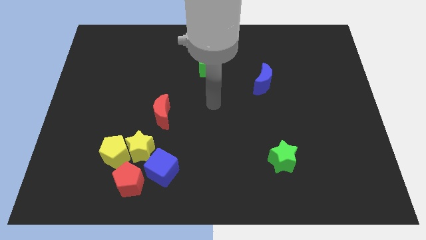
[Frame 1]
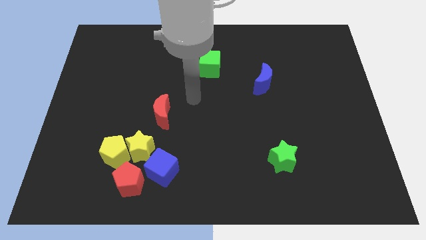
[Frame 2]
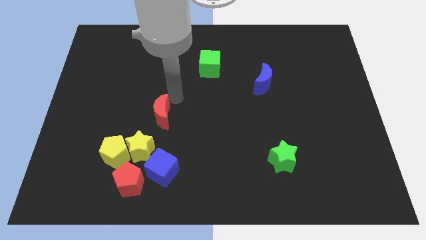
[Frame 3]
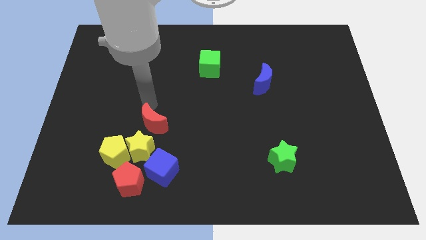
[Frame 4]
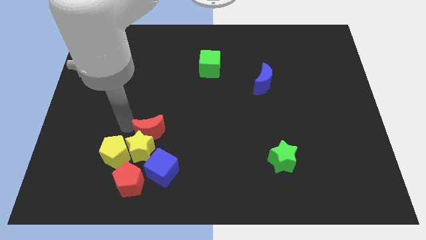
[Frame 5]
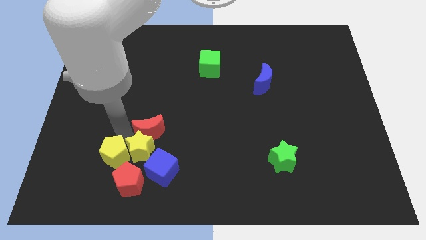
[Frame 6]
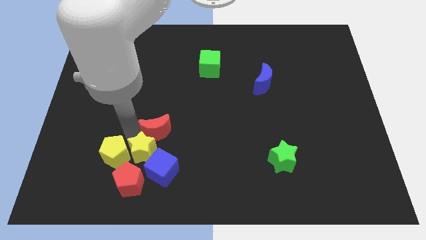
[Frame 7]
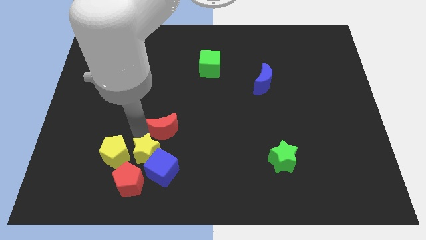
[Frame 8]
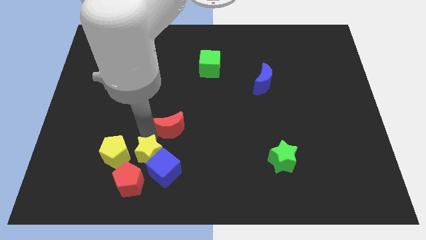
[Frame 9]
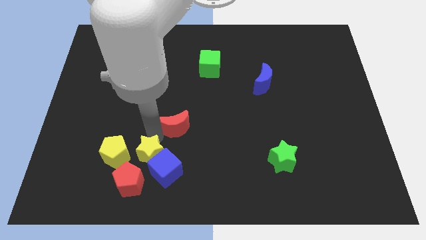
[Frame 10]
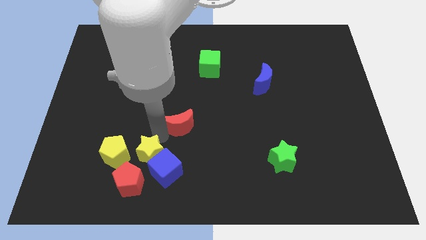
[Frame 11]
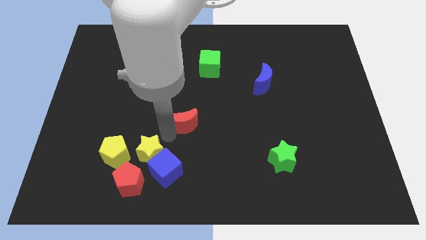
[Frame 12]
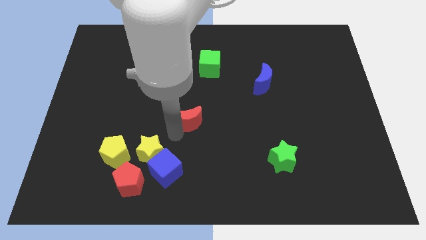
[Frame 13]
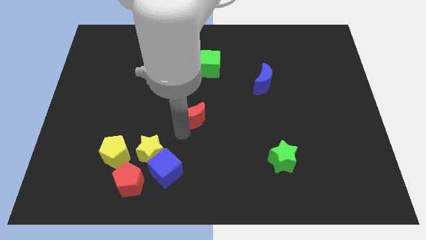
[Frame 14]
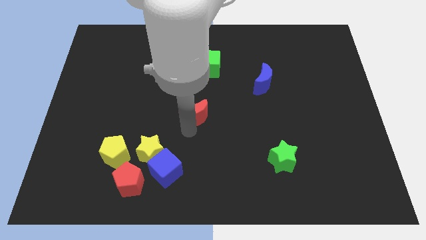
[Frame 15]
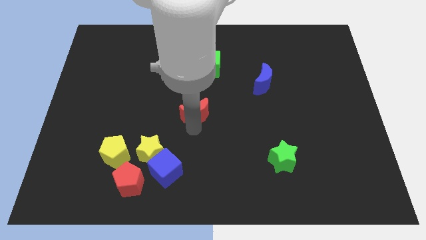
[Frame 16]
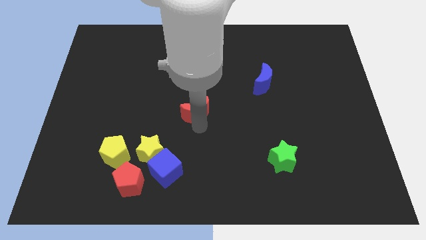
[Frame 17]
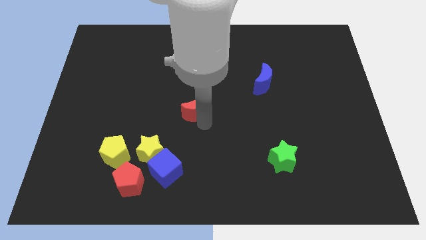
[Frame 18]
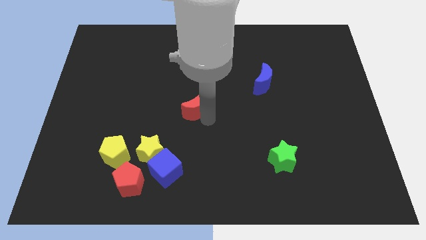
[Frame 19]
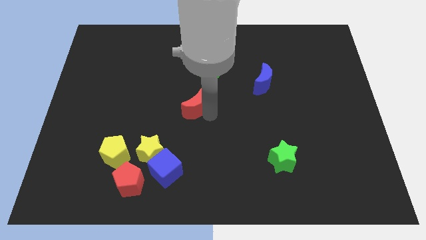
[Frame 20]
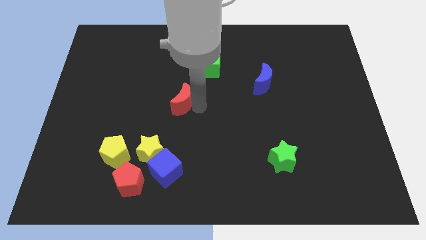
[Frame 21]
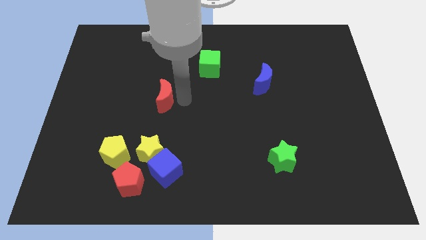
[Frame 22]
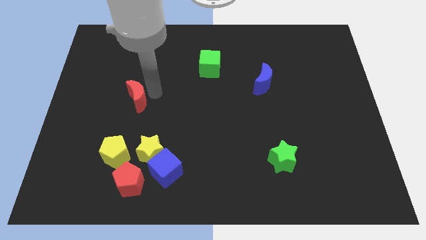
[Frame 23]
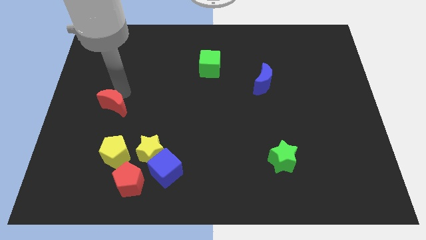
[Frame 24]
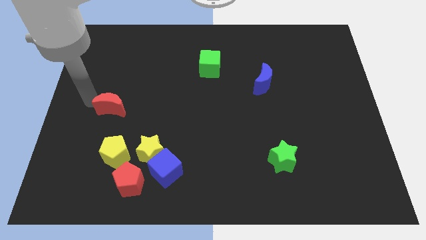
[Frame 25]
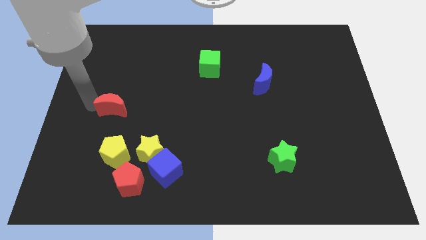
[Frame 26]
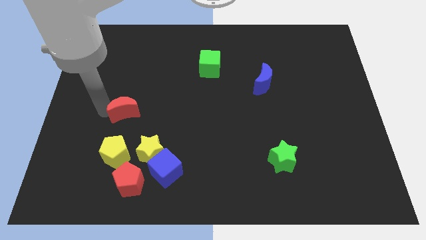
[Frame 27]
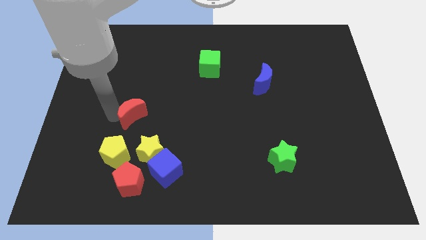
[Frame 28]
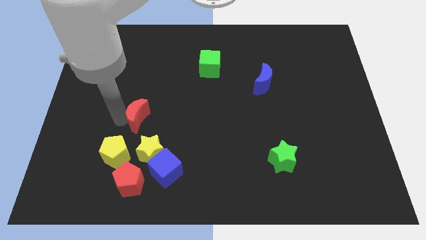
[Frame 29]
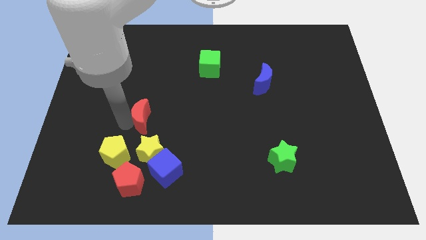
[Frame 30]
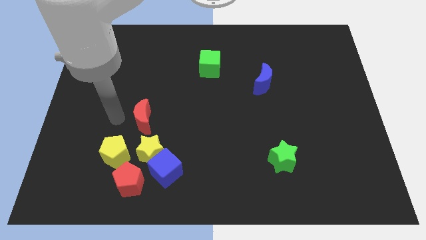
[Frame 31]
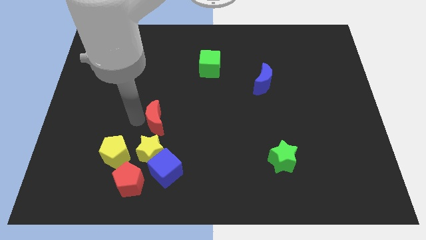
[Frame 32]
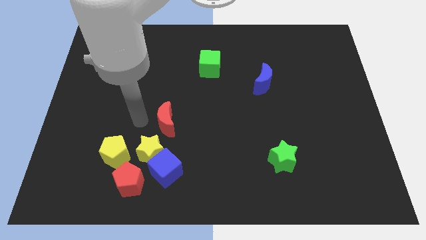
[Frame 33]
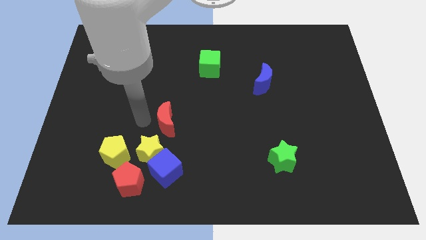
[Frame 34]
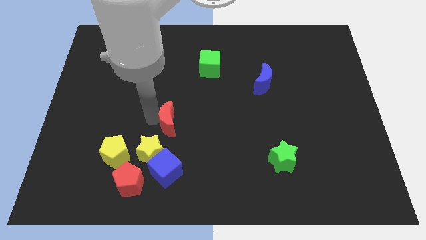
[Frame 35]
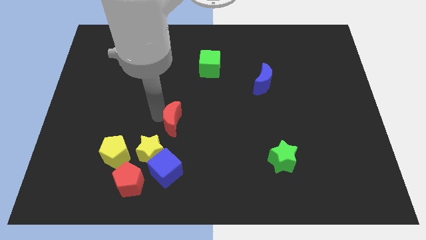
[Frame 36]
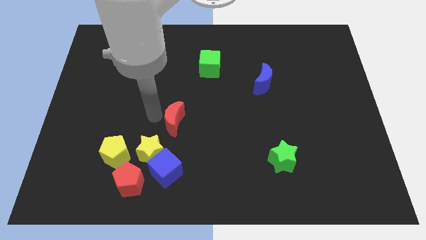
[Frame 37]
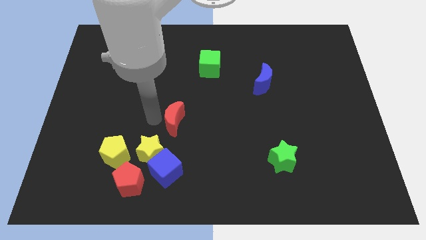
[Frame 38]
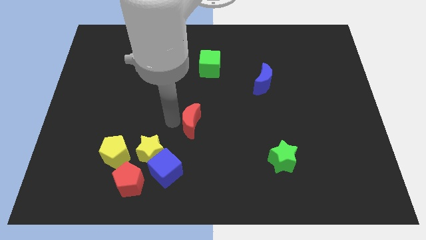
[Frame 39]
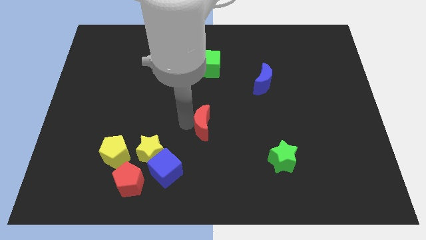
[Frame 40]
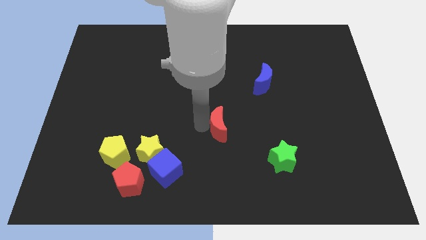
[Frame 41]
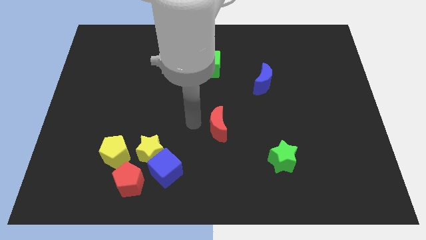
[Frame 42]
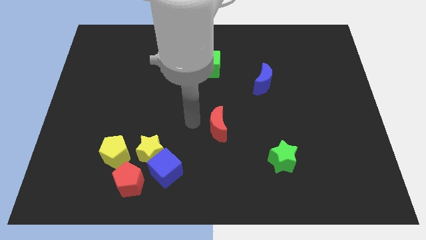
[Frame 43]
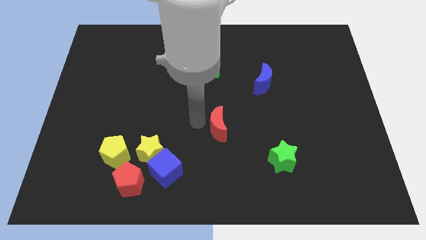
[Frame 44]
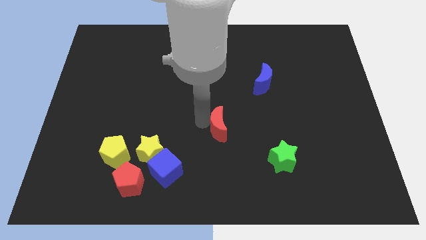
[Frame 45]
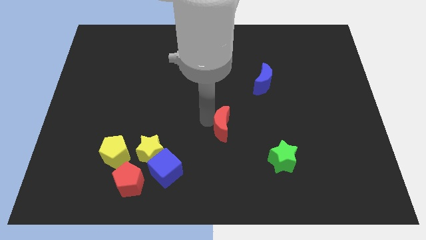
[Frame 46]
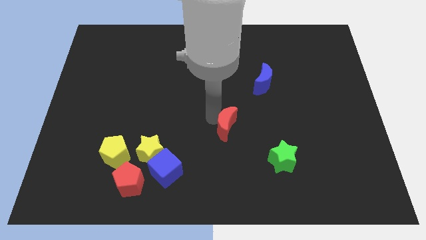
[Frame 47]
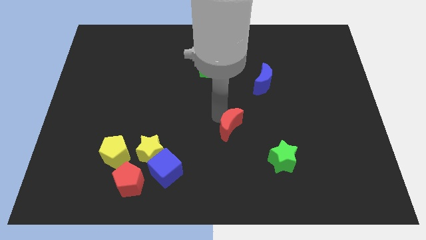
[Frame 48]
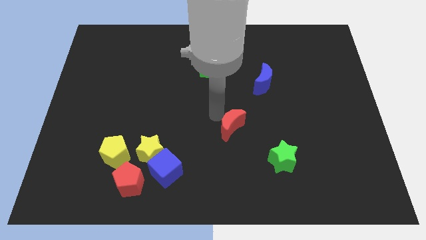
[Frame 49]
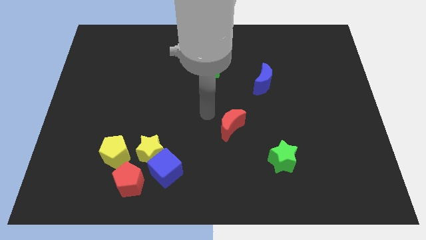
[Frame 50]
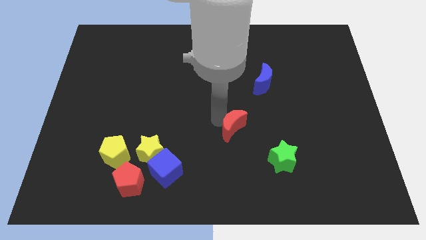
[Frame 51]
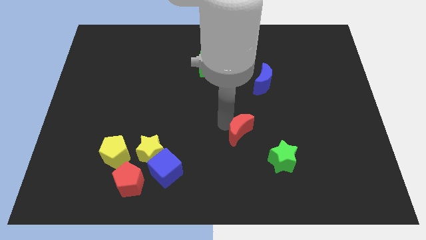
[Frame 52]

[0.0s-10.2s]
put the red moon to the top left of the green star

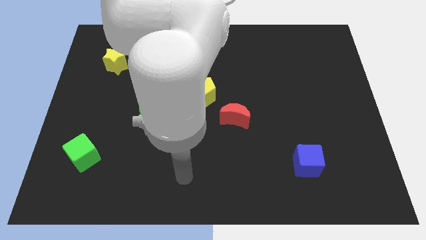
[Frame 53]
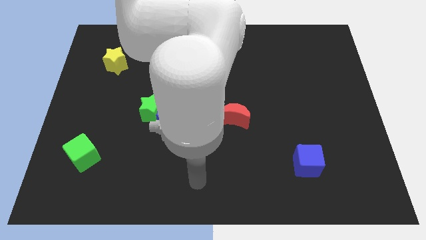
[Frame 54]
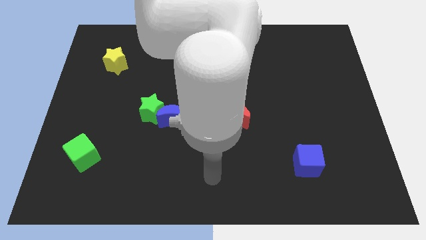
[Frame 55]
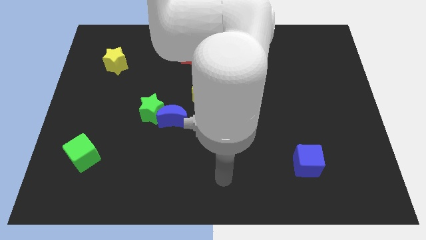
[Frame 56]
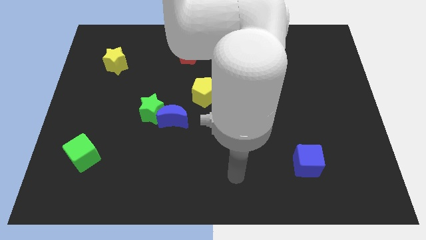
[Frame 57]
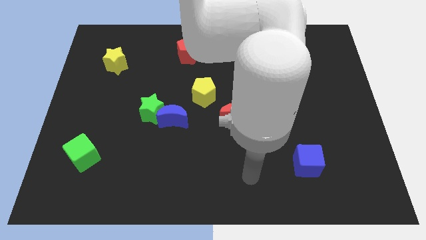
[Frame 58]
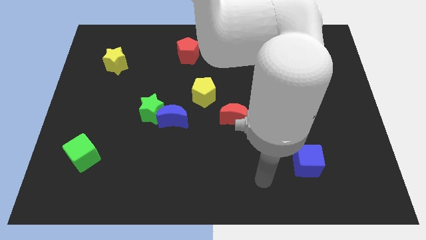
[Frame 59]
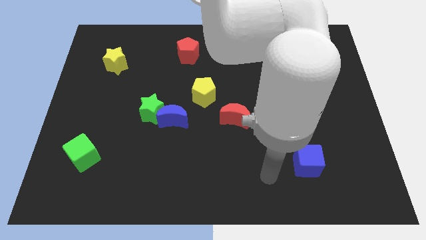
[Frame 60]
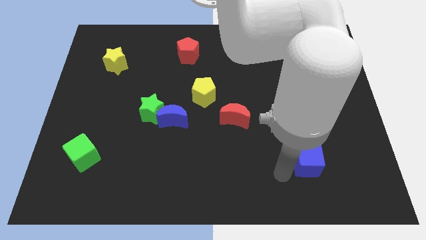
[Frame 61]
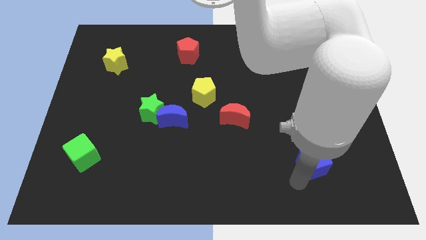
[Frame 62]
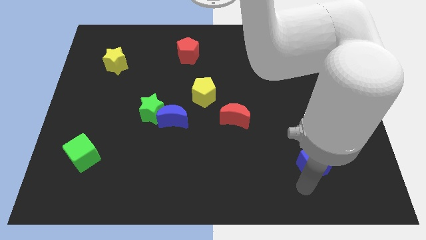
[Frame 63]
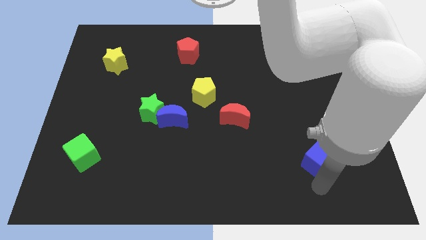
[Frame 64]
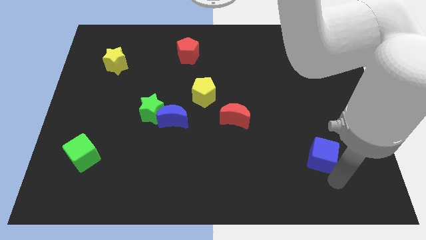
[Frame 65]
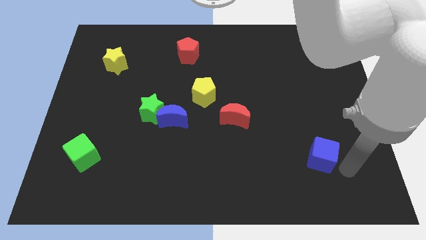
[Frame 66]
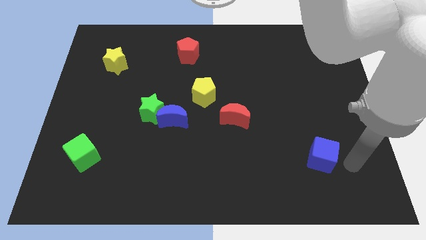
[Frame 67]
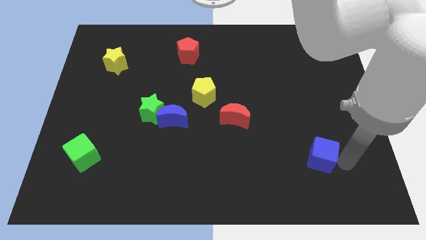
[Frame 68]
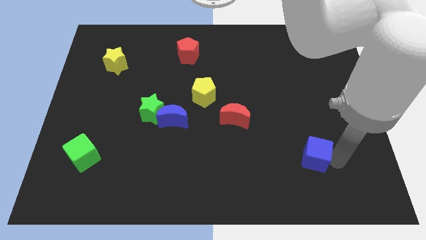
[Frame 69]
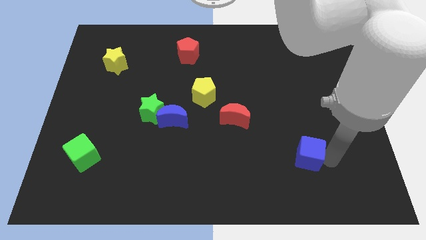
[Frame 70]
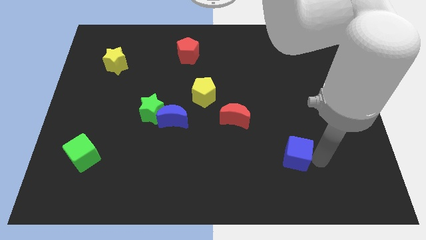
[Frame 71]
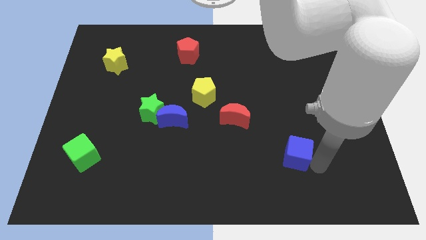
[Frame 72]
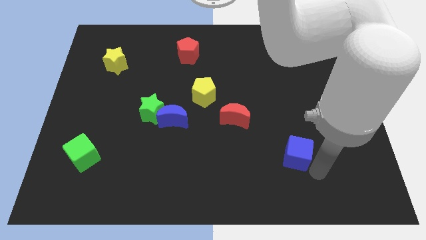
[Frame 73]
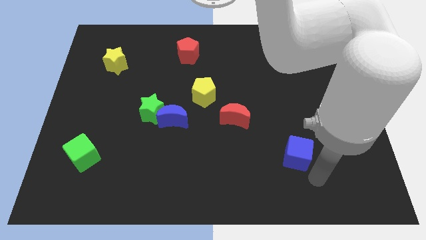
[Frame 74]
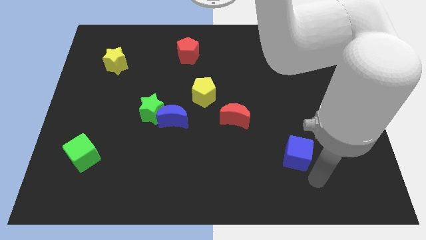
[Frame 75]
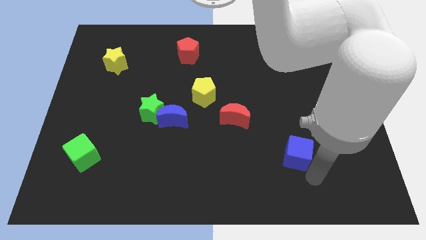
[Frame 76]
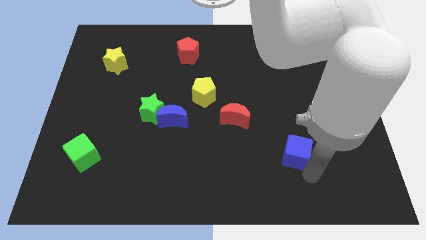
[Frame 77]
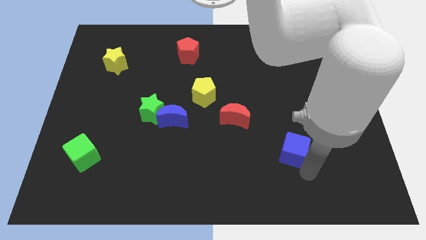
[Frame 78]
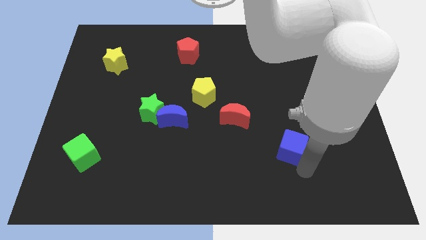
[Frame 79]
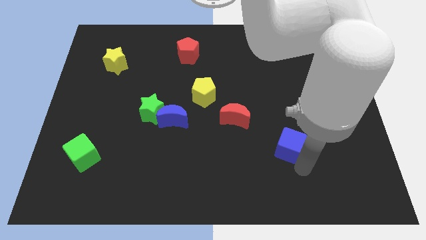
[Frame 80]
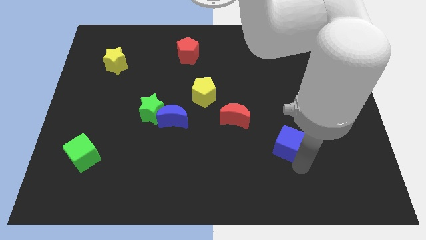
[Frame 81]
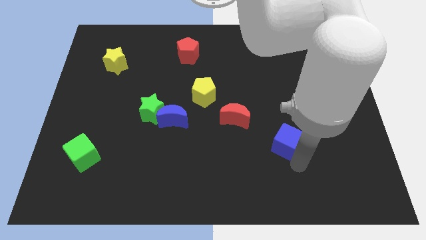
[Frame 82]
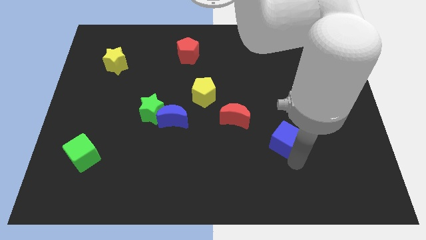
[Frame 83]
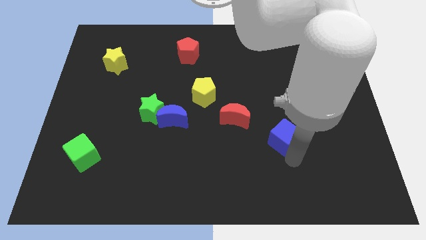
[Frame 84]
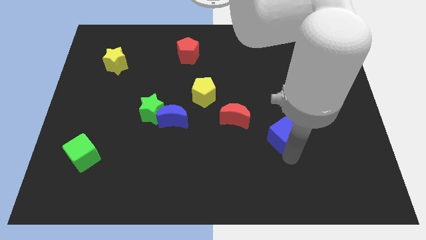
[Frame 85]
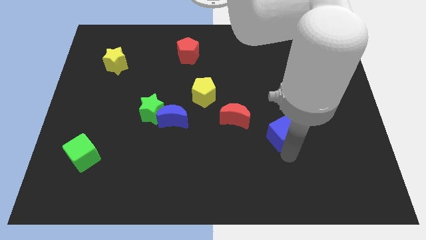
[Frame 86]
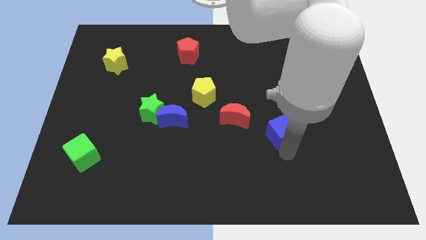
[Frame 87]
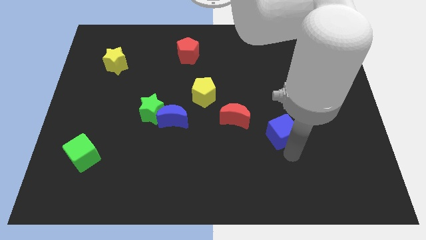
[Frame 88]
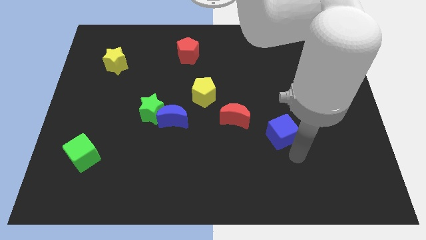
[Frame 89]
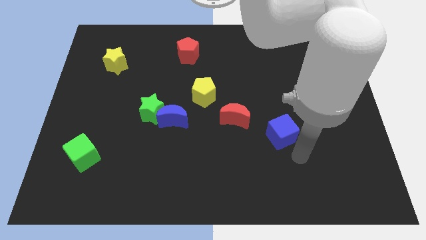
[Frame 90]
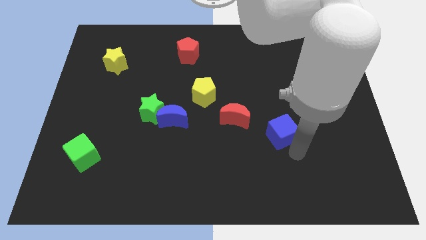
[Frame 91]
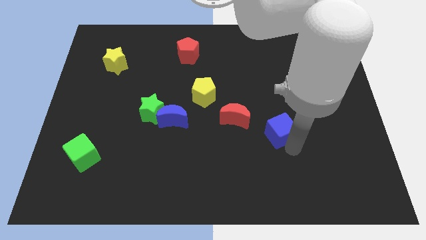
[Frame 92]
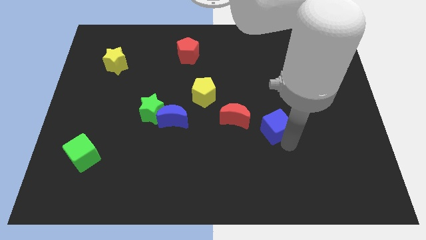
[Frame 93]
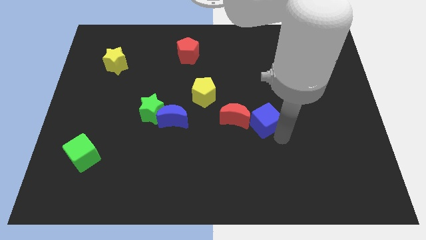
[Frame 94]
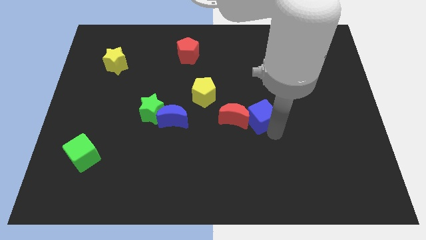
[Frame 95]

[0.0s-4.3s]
push the blue cube to the top right of the red moon
